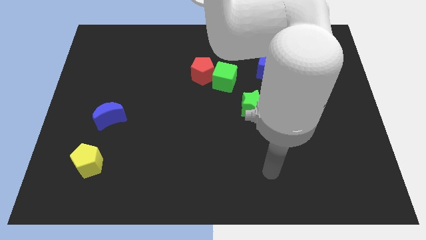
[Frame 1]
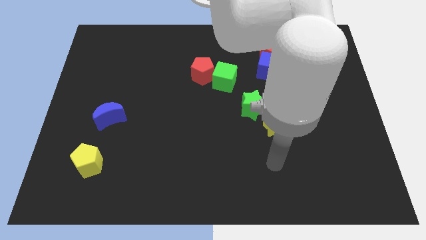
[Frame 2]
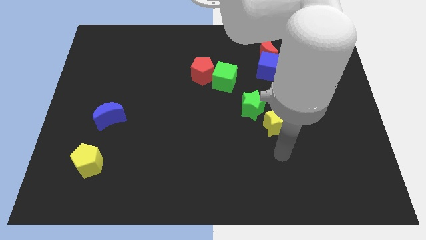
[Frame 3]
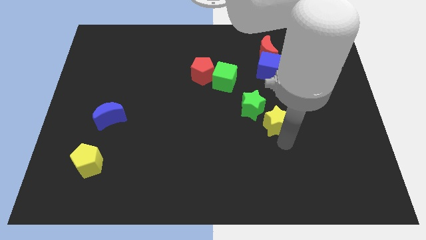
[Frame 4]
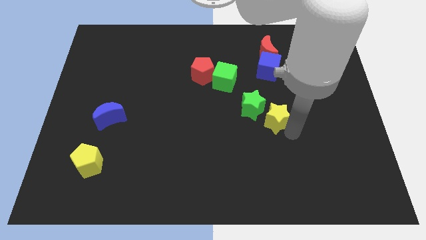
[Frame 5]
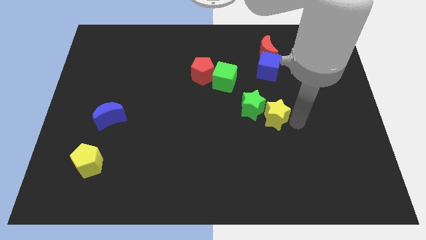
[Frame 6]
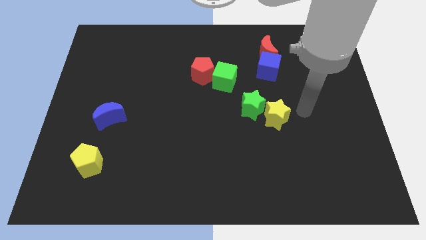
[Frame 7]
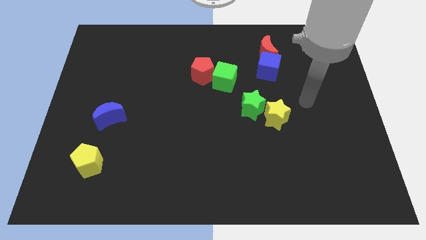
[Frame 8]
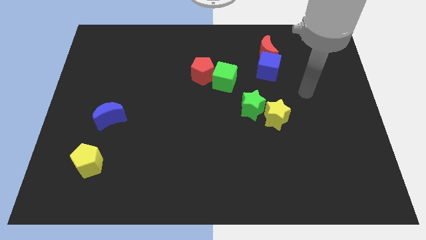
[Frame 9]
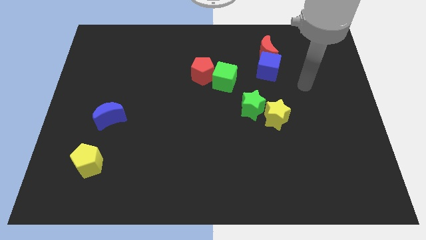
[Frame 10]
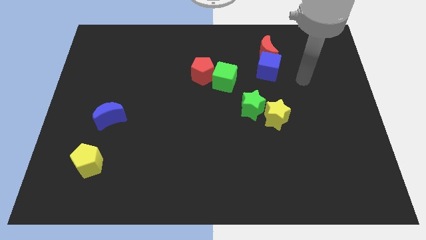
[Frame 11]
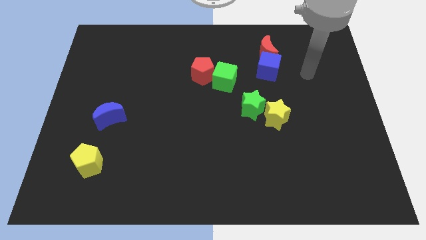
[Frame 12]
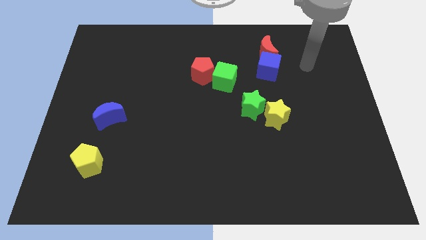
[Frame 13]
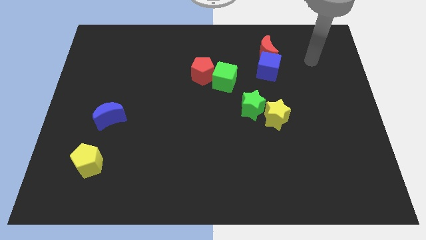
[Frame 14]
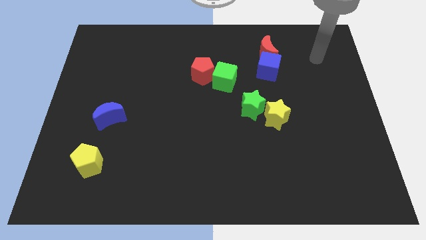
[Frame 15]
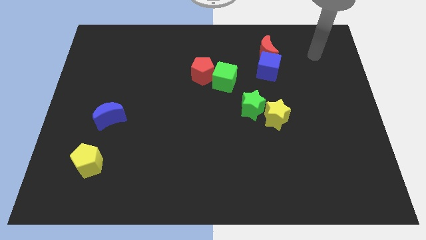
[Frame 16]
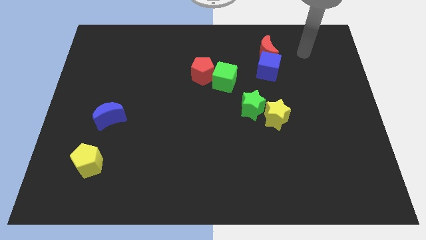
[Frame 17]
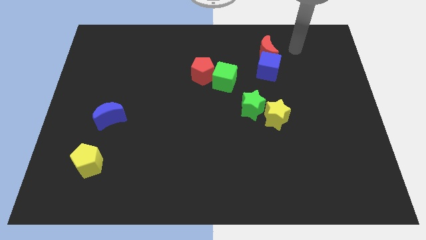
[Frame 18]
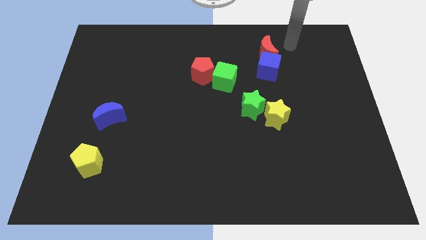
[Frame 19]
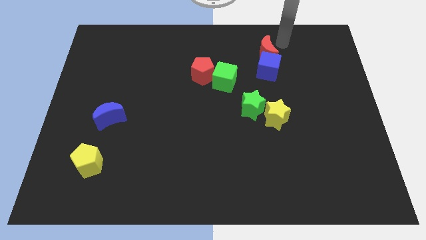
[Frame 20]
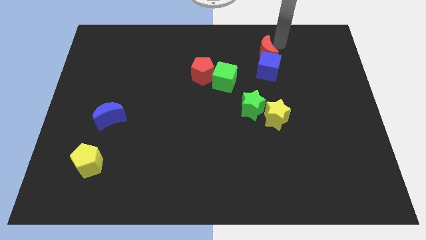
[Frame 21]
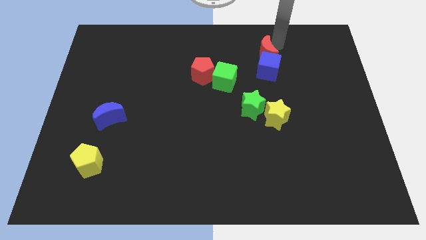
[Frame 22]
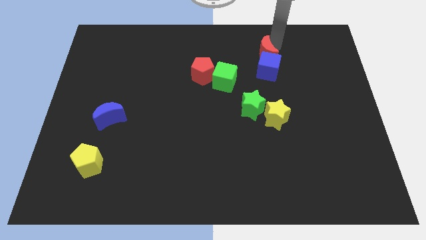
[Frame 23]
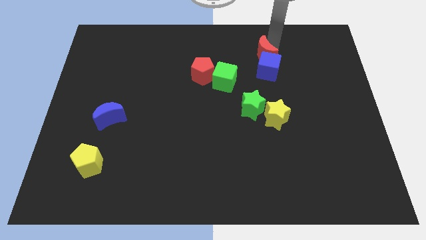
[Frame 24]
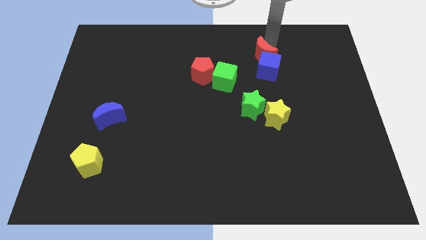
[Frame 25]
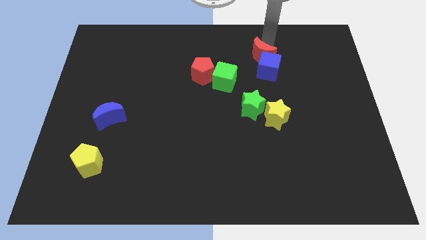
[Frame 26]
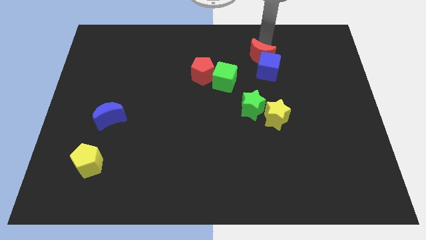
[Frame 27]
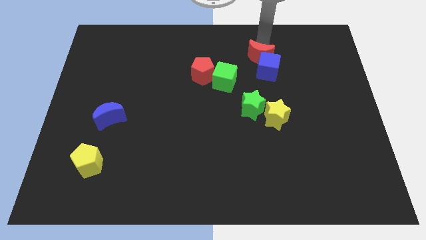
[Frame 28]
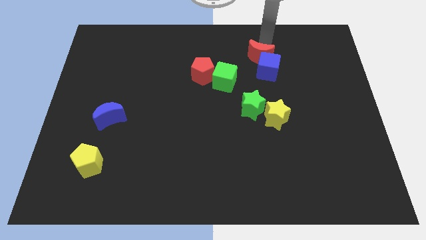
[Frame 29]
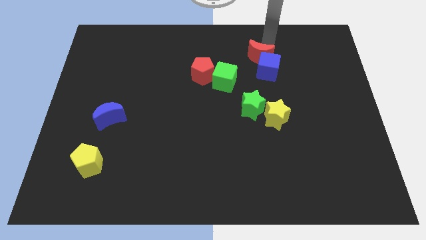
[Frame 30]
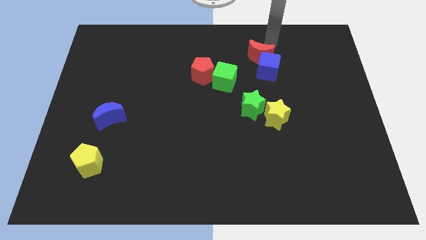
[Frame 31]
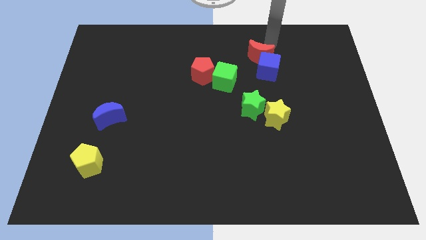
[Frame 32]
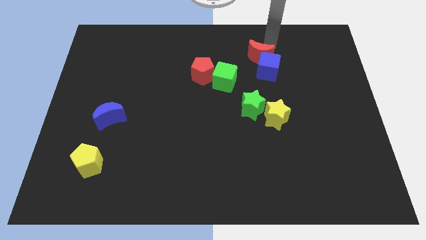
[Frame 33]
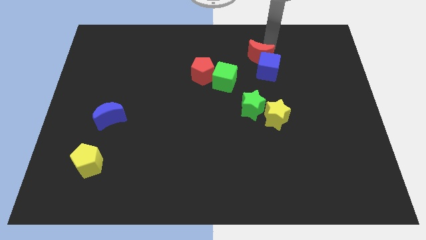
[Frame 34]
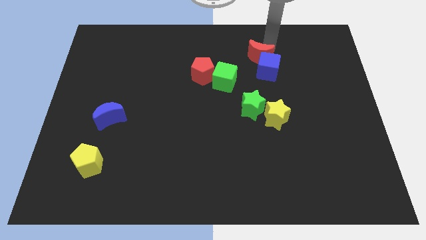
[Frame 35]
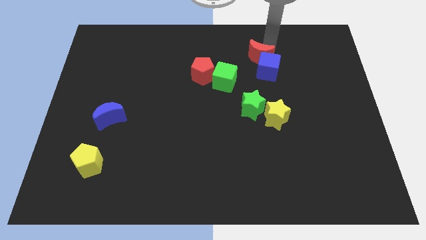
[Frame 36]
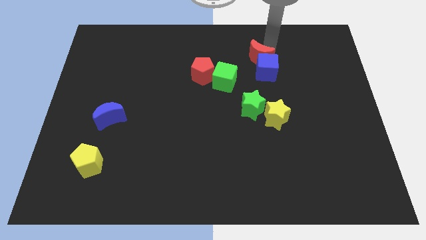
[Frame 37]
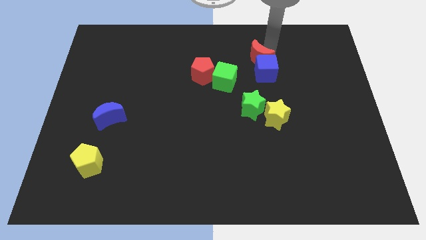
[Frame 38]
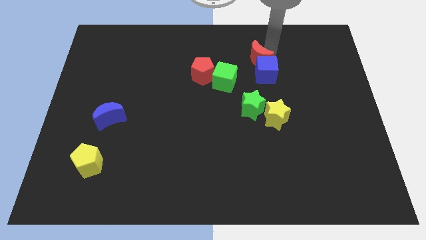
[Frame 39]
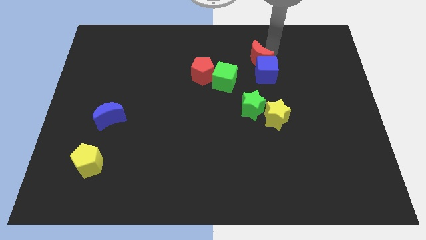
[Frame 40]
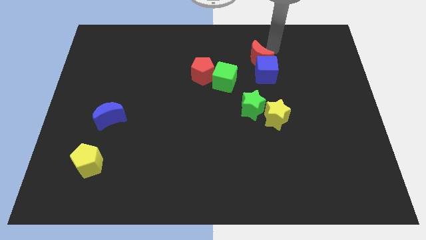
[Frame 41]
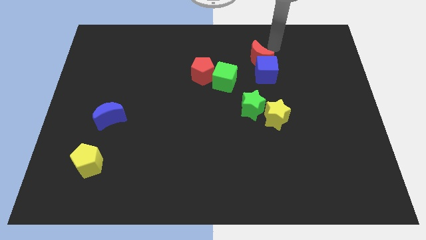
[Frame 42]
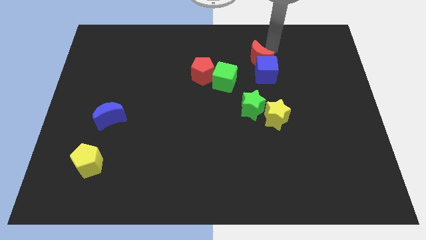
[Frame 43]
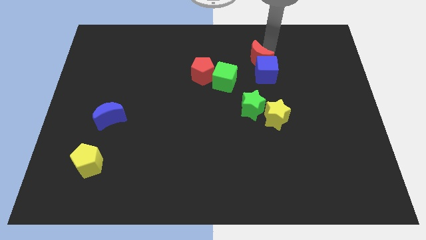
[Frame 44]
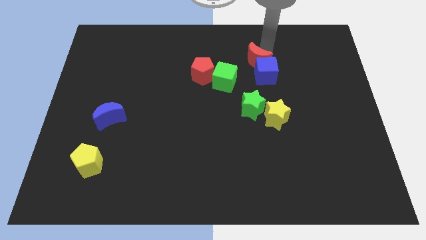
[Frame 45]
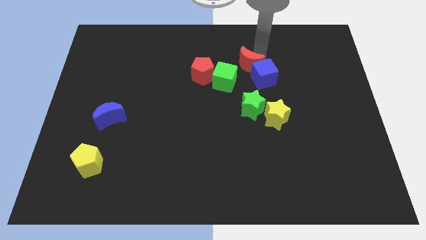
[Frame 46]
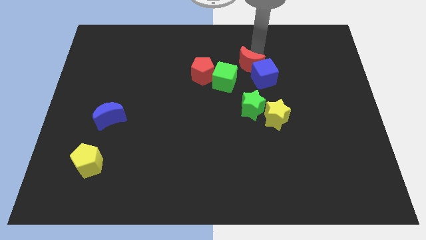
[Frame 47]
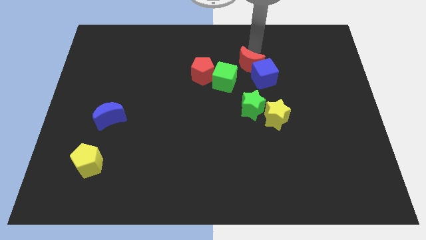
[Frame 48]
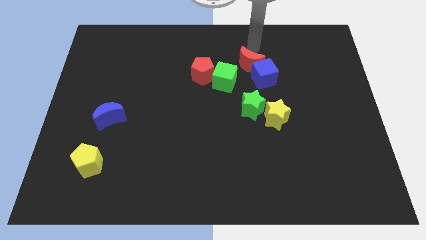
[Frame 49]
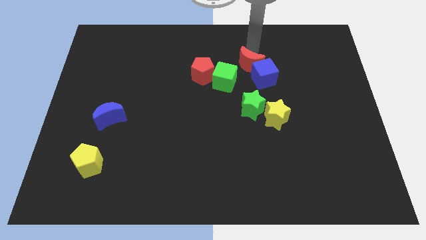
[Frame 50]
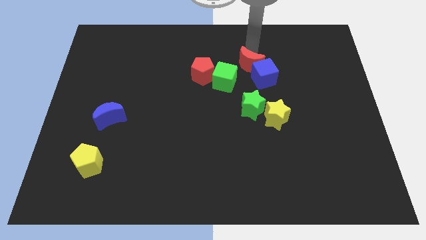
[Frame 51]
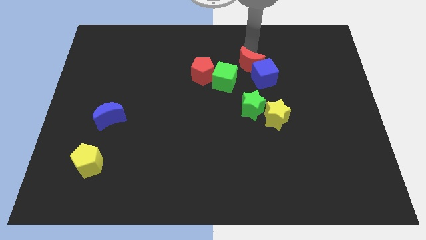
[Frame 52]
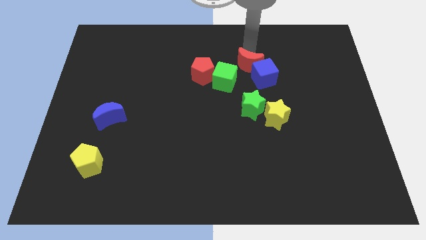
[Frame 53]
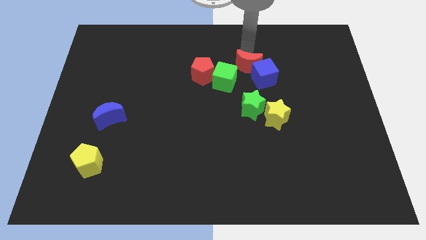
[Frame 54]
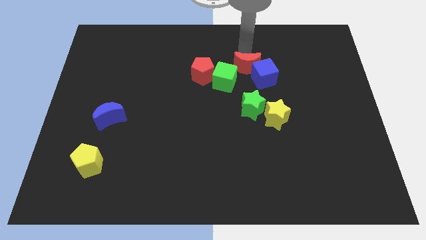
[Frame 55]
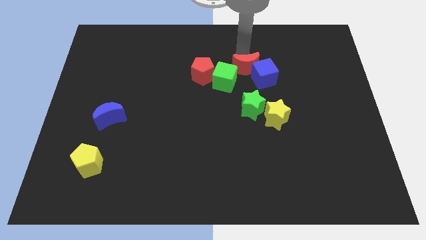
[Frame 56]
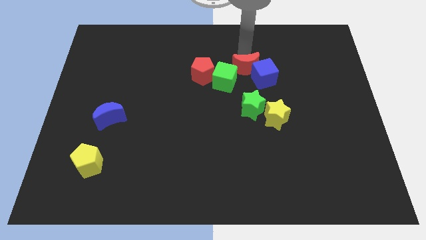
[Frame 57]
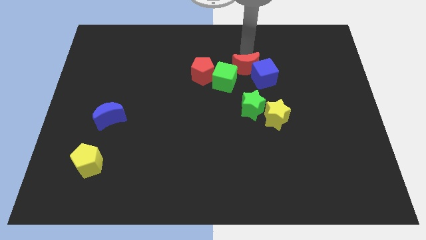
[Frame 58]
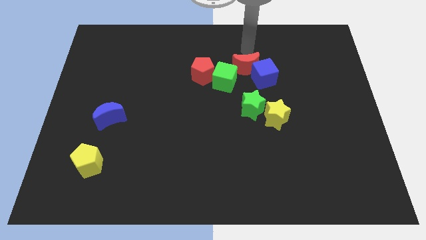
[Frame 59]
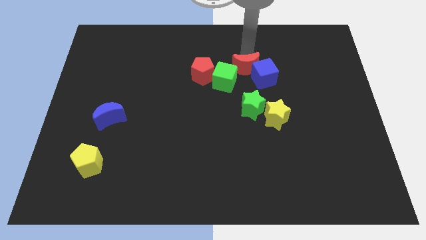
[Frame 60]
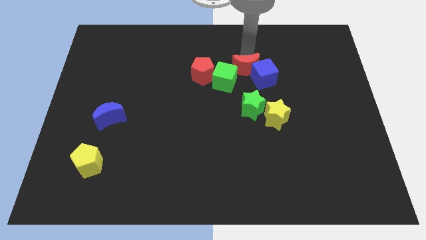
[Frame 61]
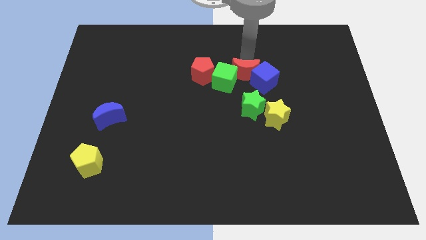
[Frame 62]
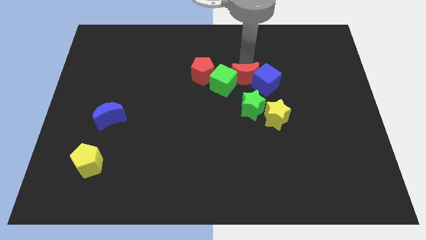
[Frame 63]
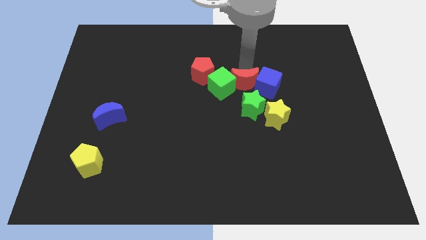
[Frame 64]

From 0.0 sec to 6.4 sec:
put the red moon to the bottom right side of the green cube
